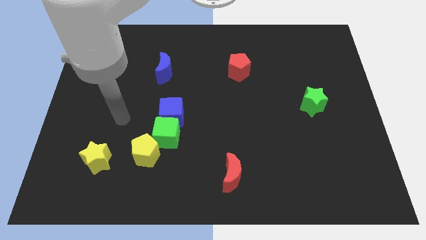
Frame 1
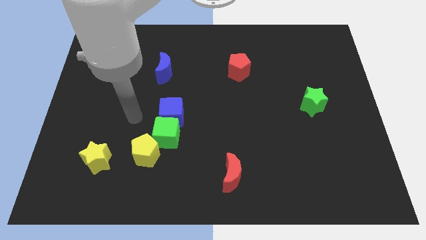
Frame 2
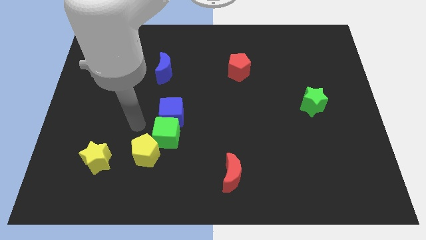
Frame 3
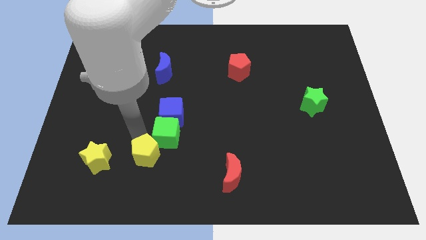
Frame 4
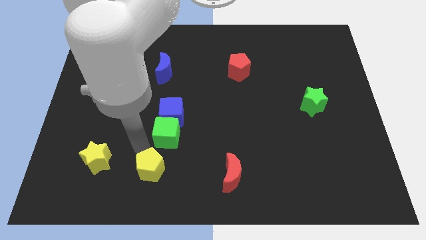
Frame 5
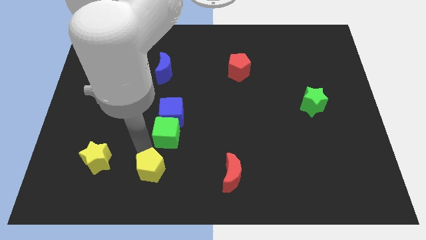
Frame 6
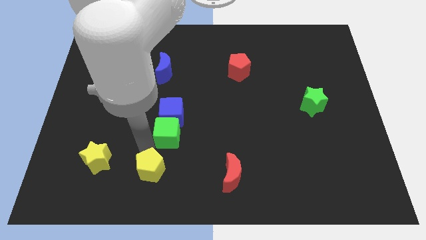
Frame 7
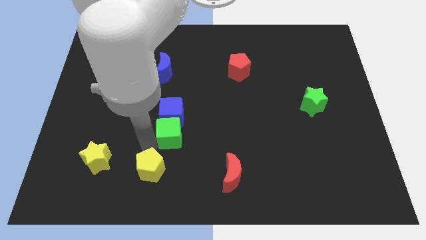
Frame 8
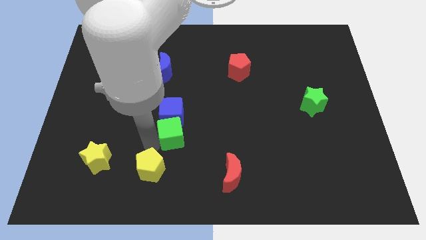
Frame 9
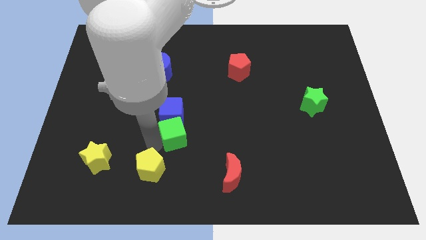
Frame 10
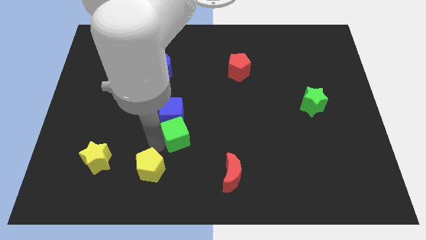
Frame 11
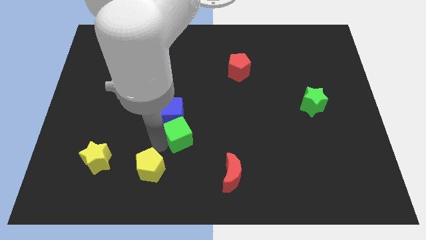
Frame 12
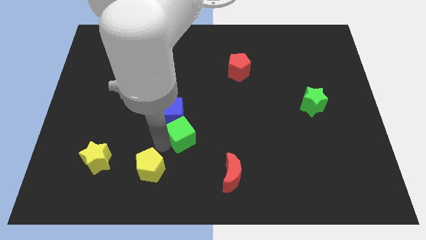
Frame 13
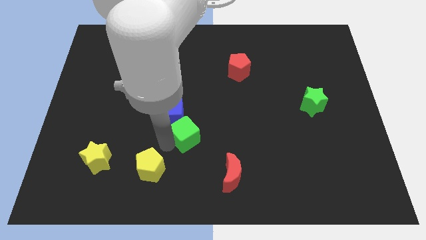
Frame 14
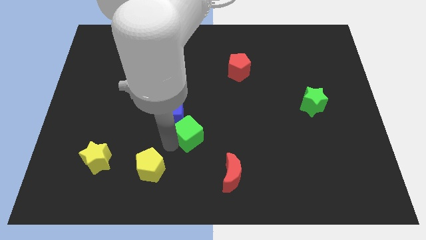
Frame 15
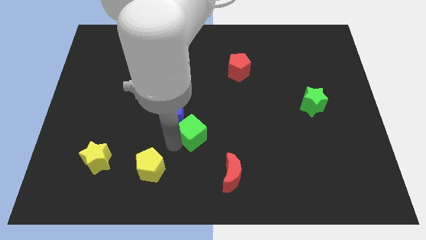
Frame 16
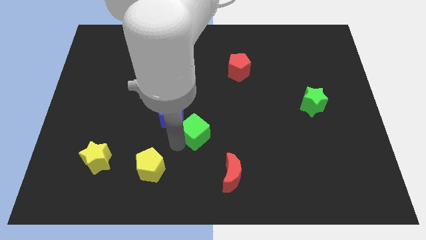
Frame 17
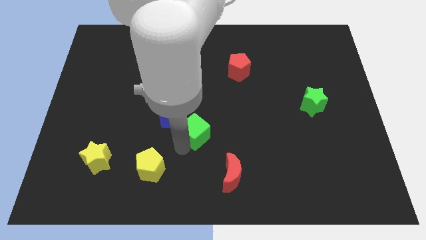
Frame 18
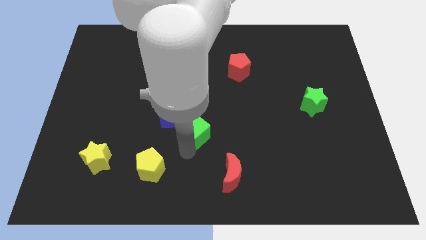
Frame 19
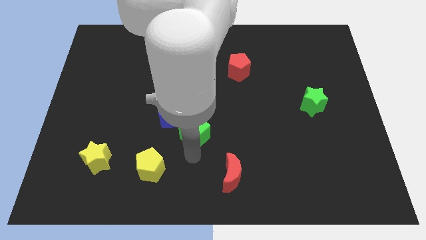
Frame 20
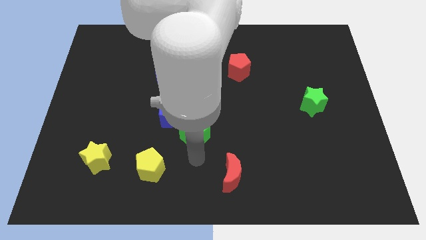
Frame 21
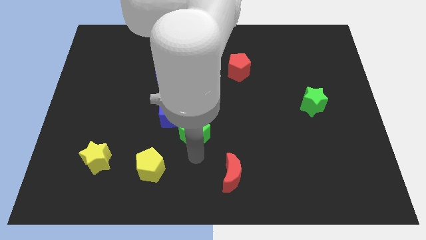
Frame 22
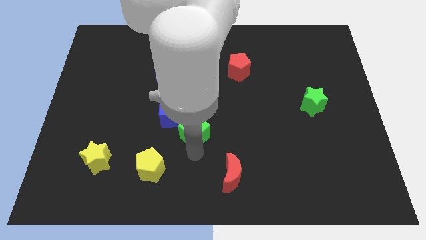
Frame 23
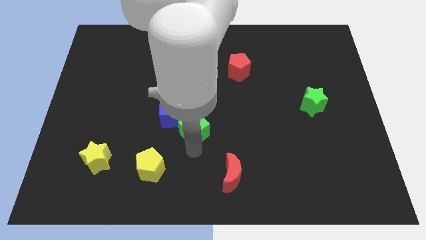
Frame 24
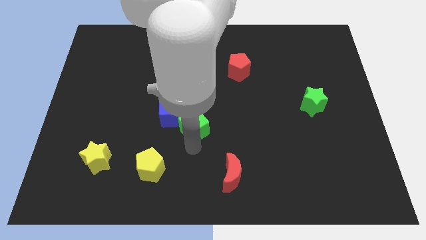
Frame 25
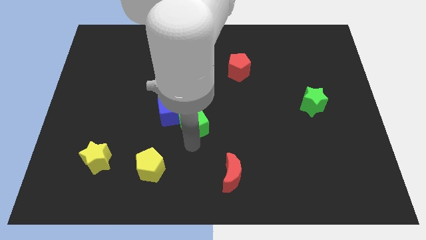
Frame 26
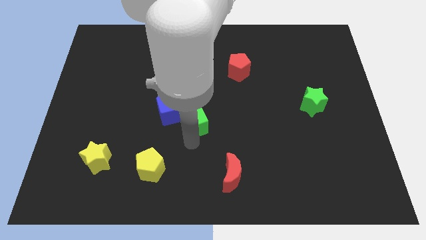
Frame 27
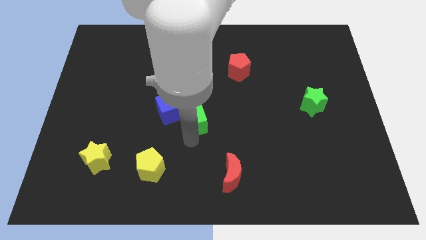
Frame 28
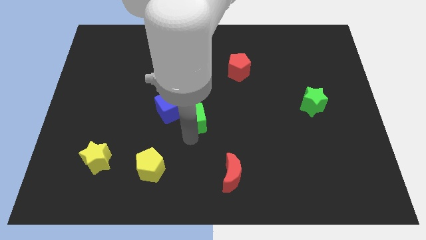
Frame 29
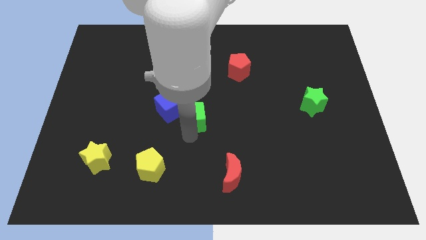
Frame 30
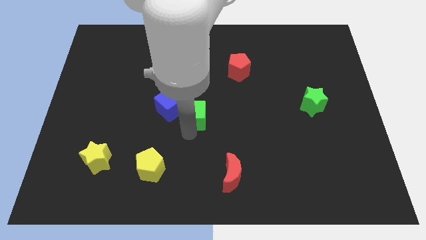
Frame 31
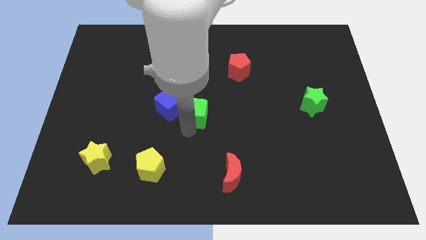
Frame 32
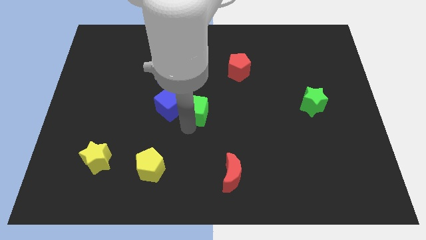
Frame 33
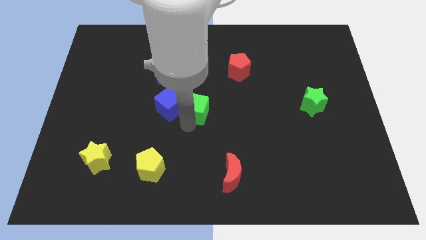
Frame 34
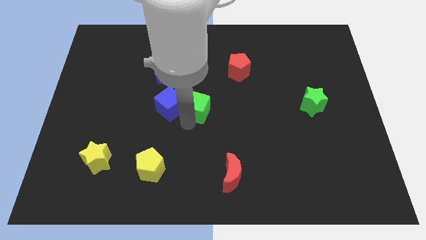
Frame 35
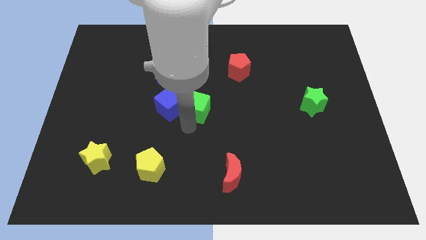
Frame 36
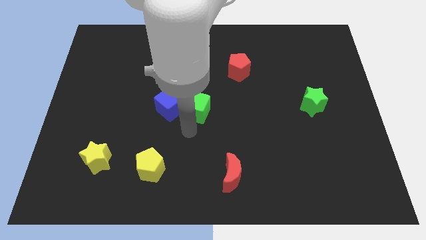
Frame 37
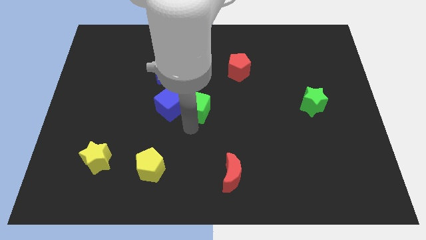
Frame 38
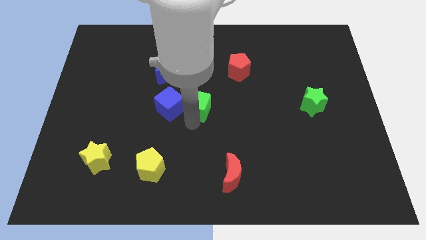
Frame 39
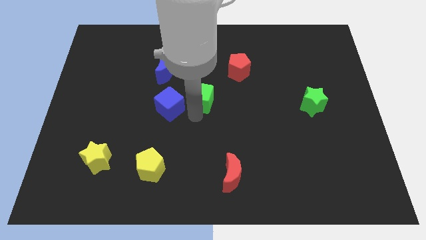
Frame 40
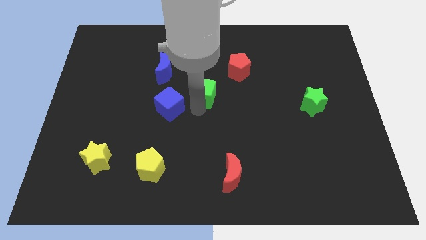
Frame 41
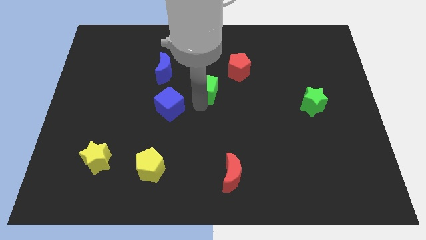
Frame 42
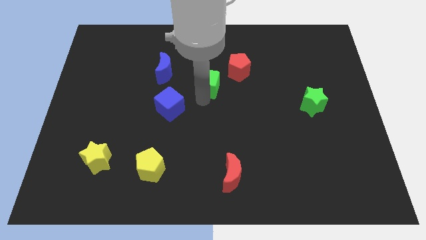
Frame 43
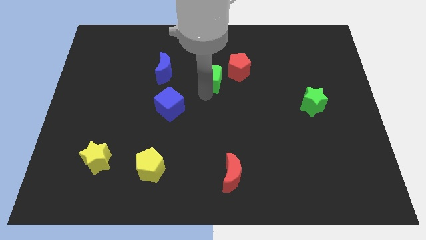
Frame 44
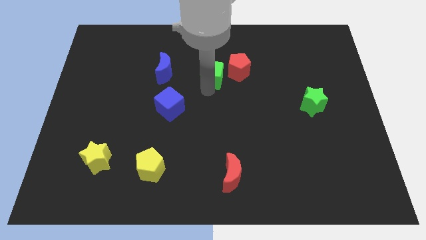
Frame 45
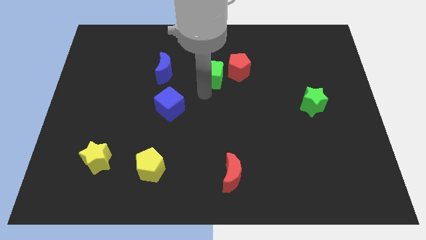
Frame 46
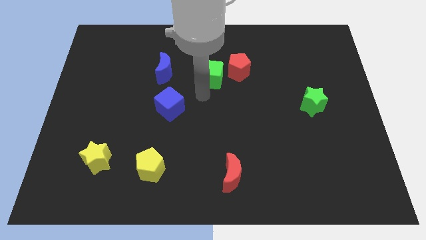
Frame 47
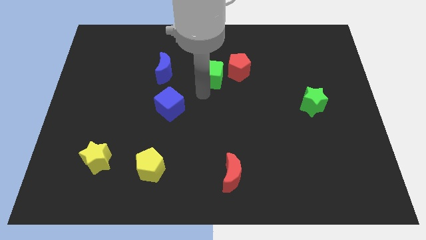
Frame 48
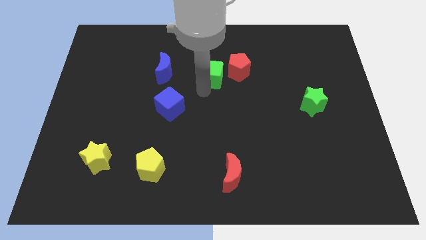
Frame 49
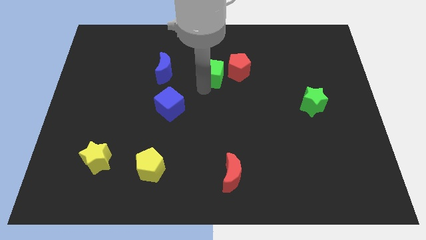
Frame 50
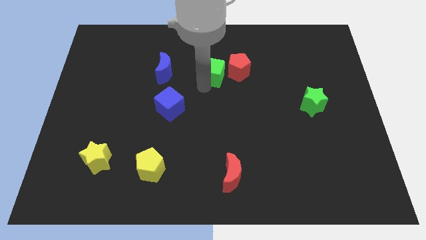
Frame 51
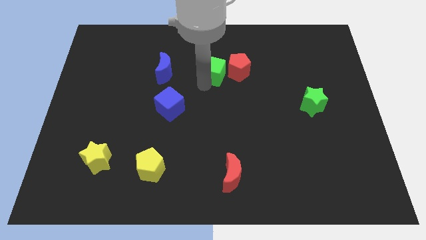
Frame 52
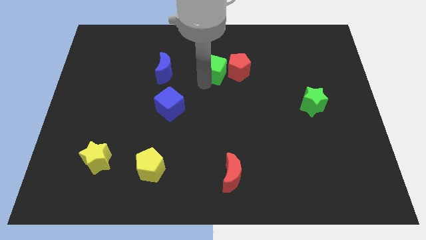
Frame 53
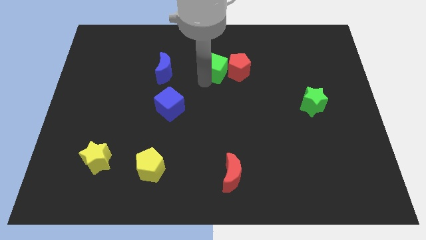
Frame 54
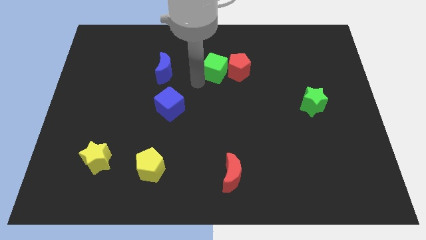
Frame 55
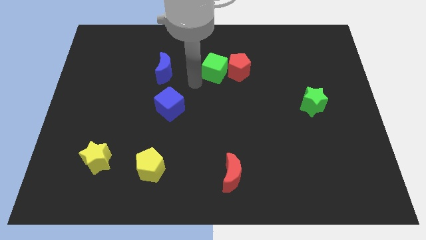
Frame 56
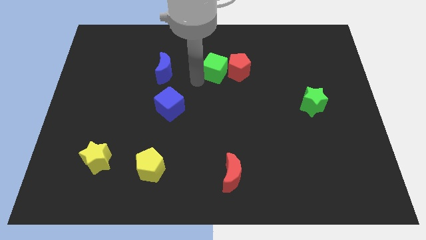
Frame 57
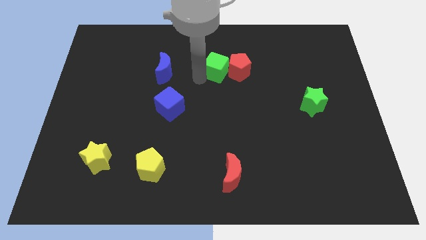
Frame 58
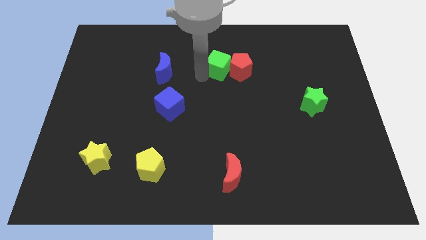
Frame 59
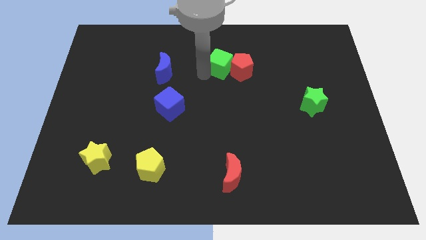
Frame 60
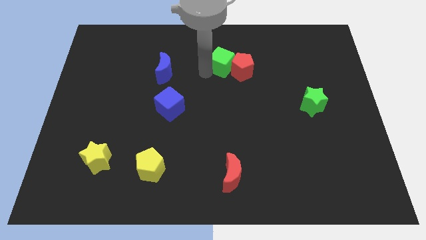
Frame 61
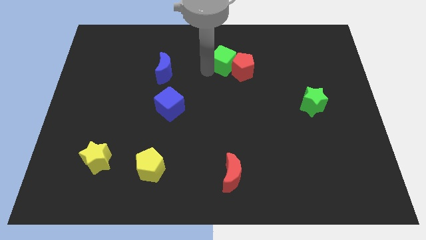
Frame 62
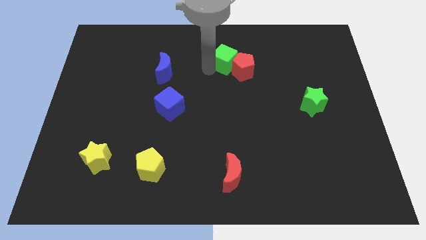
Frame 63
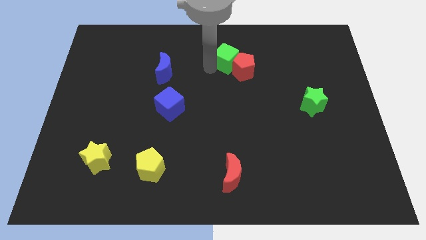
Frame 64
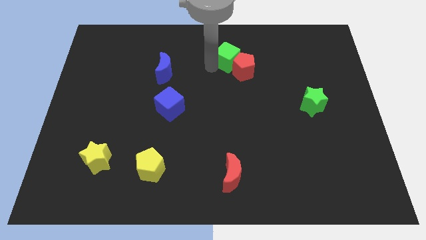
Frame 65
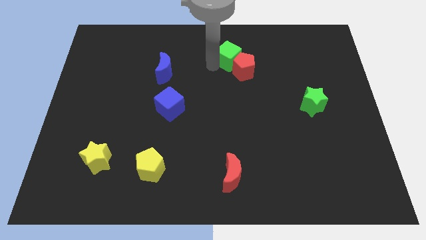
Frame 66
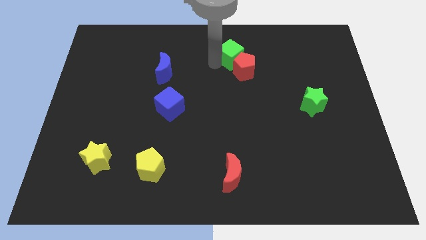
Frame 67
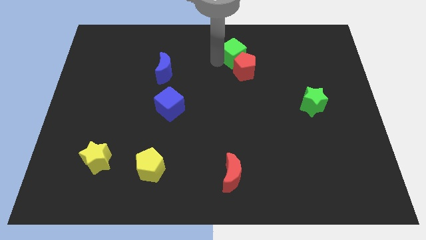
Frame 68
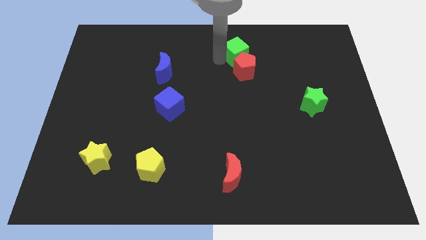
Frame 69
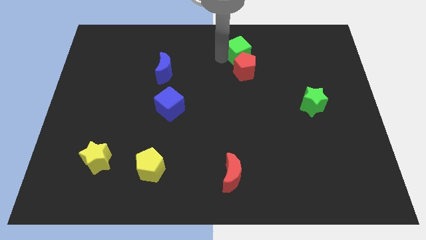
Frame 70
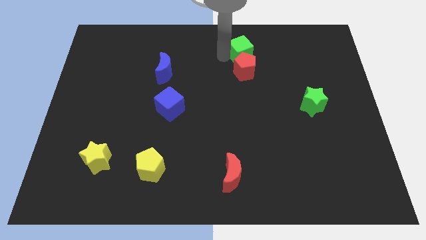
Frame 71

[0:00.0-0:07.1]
slide the green cube diagonally up and to the right of the red pentagon
